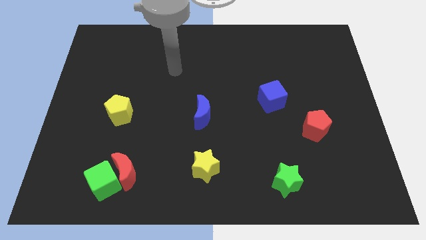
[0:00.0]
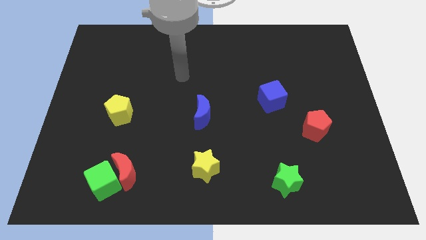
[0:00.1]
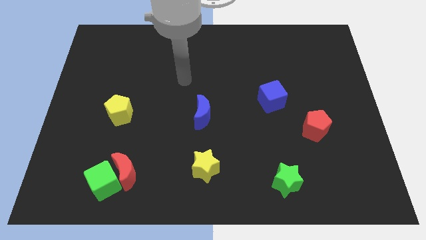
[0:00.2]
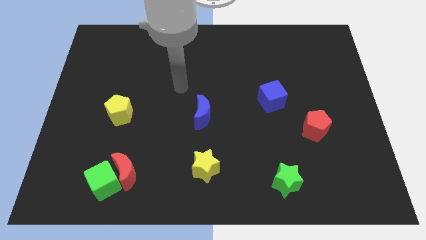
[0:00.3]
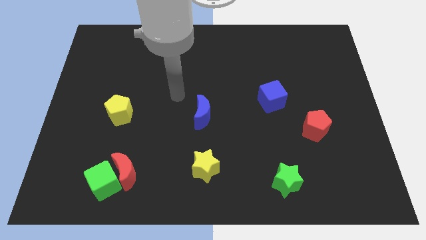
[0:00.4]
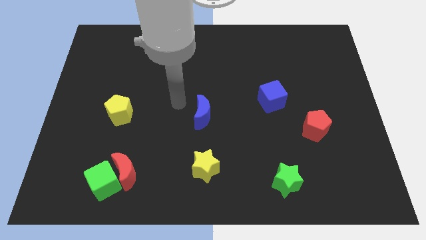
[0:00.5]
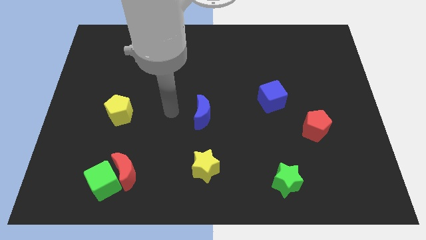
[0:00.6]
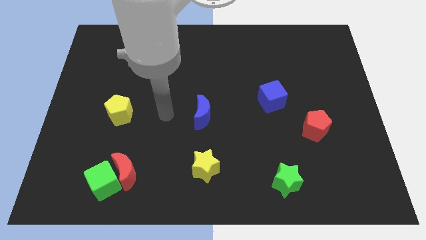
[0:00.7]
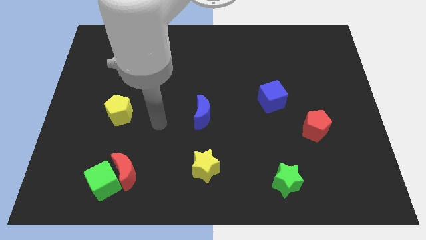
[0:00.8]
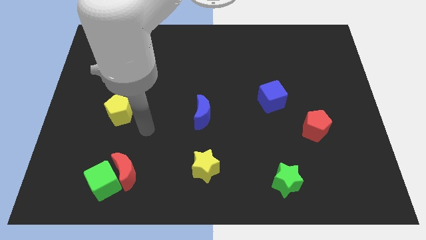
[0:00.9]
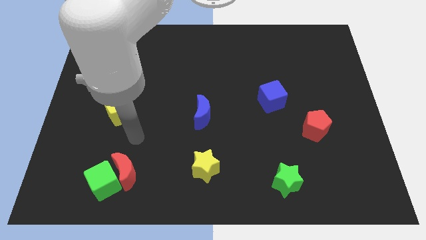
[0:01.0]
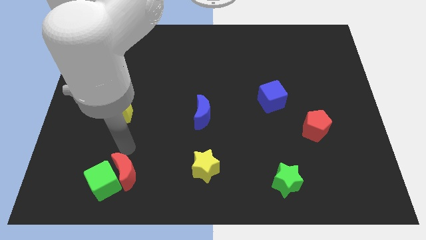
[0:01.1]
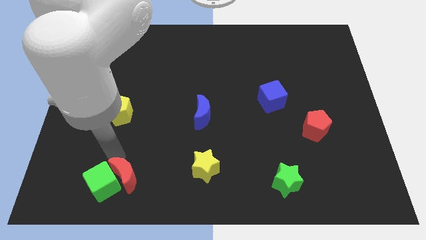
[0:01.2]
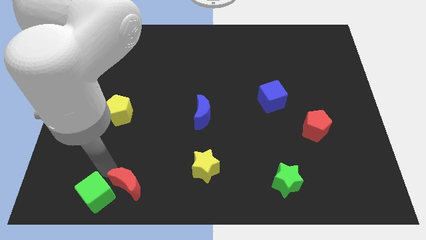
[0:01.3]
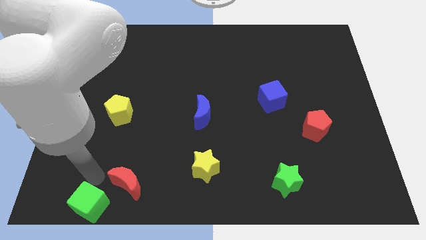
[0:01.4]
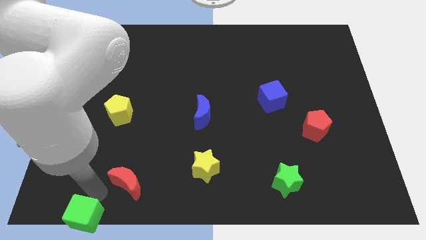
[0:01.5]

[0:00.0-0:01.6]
move the red moon away from the green cube

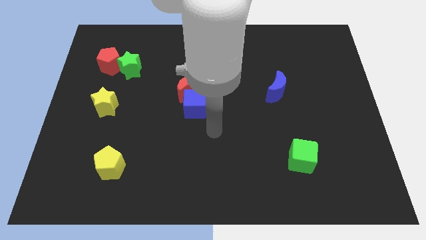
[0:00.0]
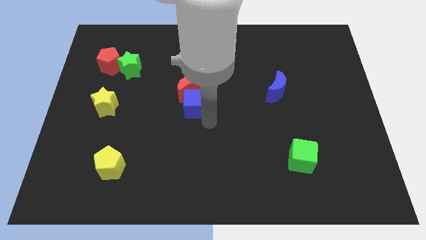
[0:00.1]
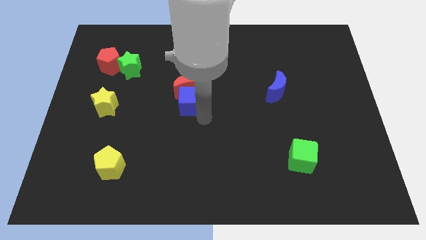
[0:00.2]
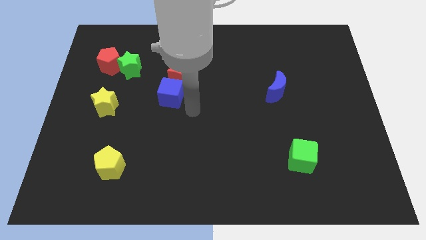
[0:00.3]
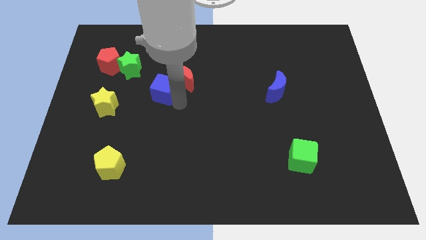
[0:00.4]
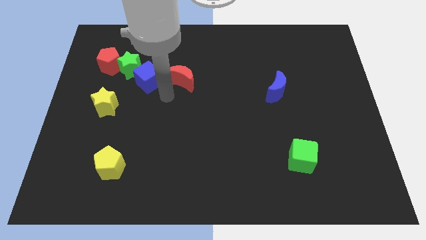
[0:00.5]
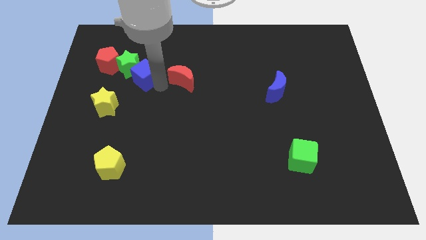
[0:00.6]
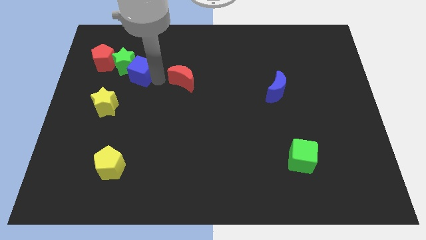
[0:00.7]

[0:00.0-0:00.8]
pull the red moon apart from the blue cube

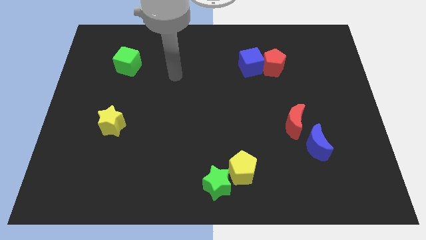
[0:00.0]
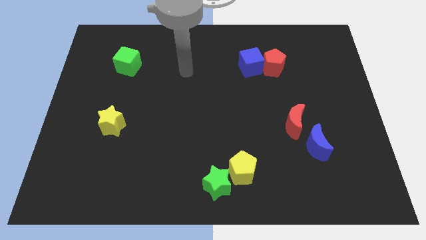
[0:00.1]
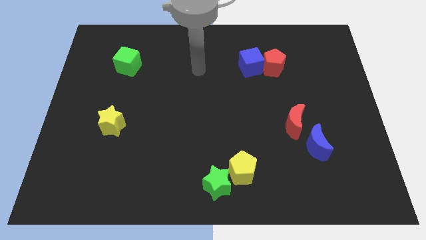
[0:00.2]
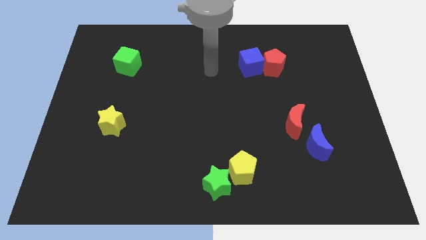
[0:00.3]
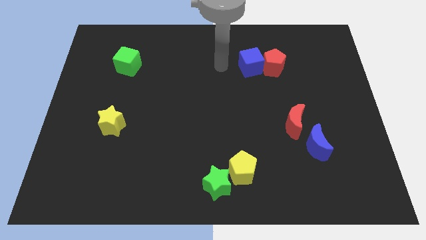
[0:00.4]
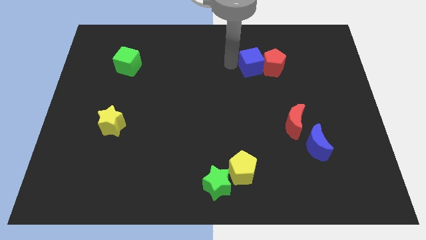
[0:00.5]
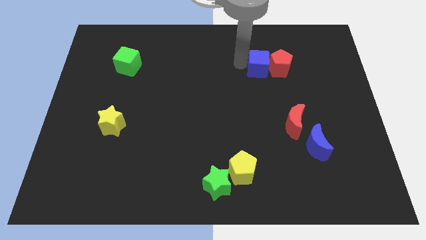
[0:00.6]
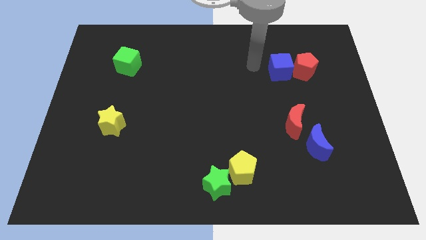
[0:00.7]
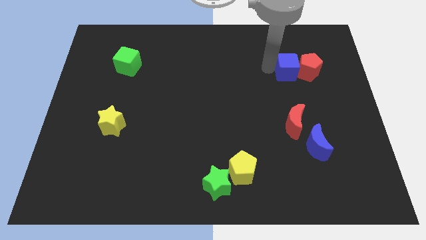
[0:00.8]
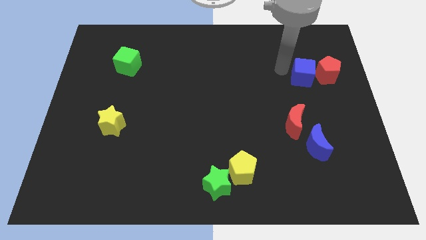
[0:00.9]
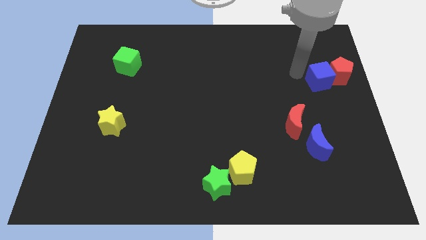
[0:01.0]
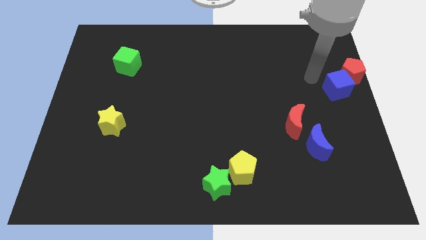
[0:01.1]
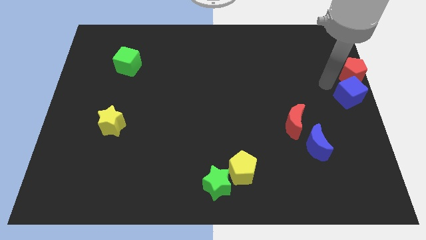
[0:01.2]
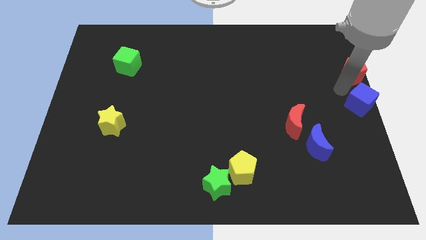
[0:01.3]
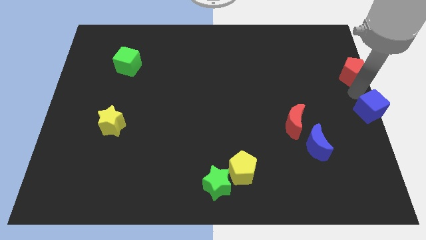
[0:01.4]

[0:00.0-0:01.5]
move the red pentagon away from the blue cube

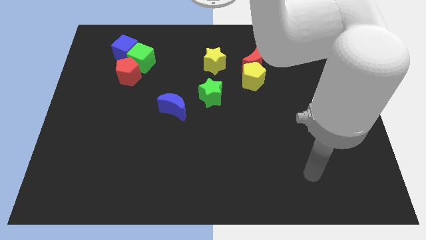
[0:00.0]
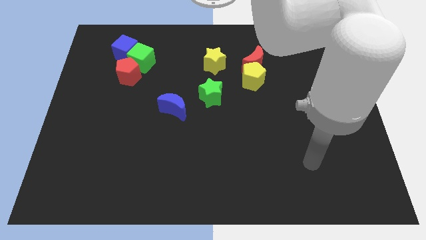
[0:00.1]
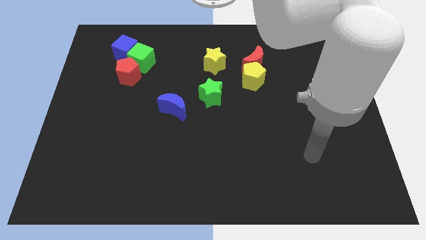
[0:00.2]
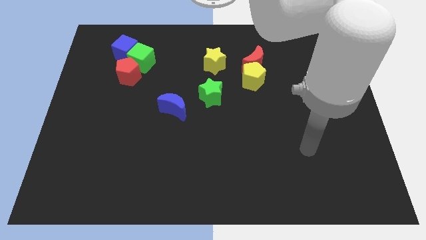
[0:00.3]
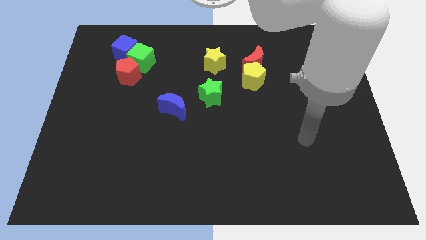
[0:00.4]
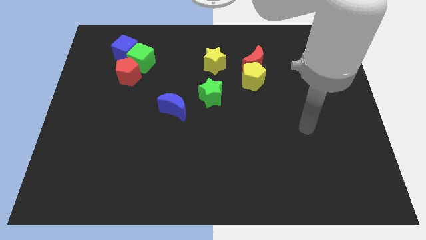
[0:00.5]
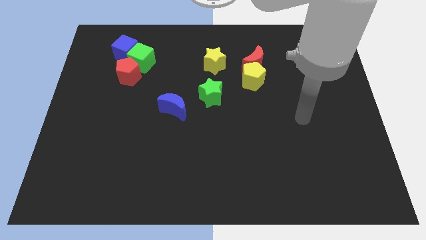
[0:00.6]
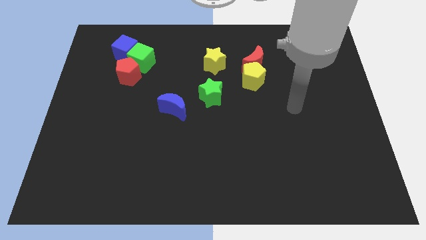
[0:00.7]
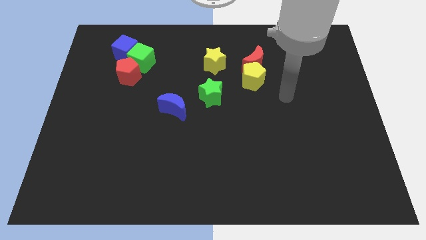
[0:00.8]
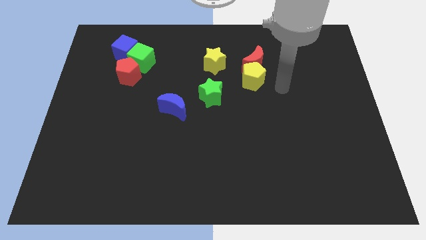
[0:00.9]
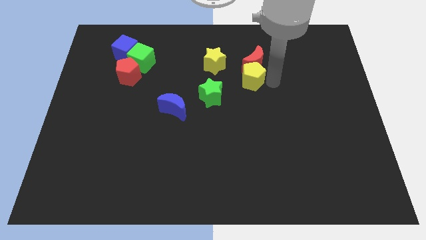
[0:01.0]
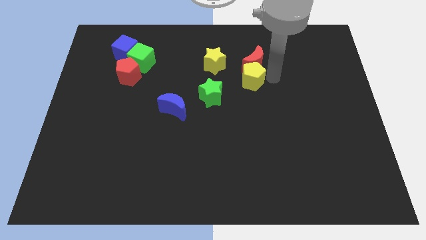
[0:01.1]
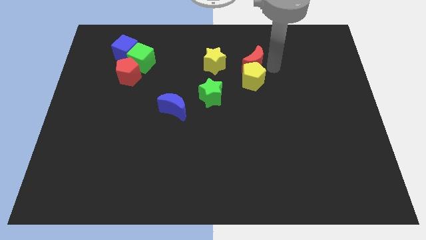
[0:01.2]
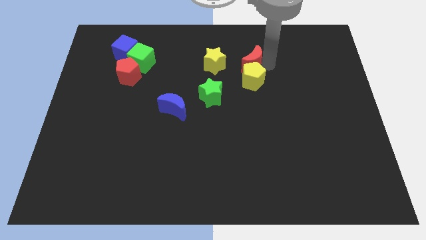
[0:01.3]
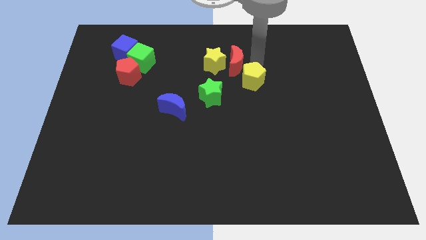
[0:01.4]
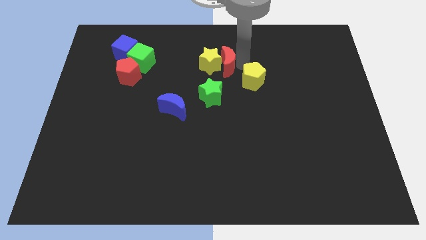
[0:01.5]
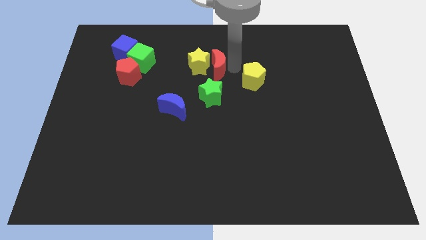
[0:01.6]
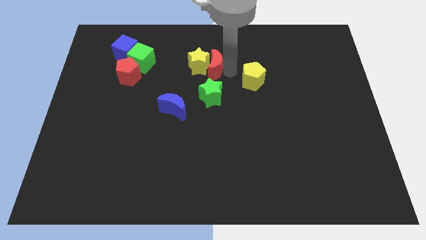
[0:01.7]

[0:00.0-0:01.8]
pull the yellow pentagon apart from the red moon

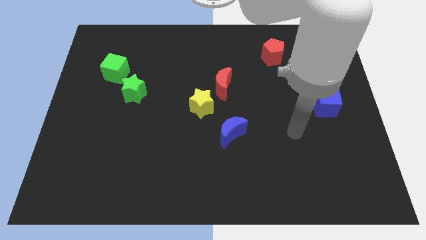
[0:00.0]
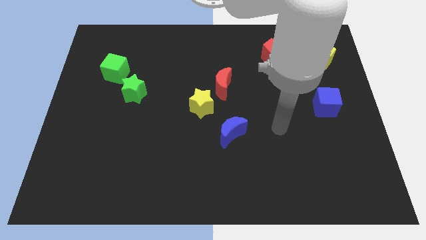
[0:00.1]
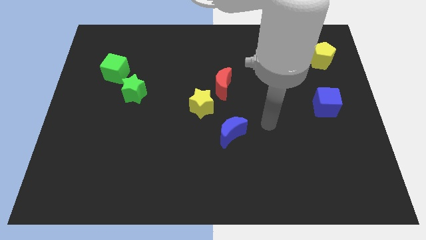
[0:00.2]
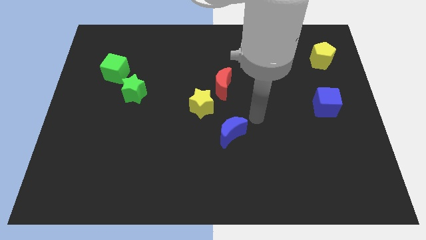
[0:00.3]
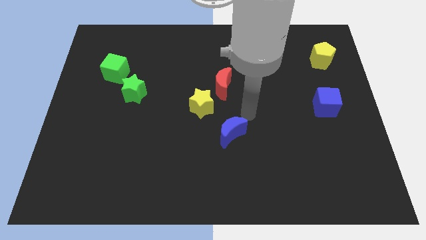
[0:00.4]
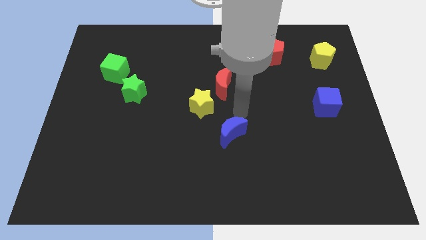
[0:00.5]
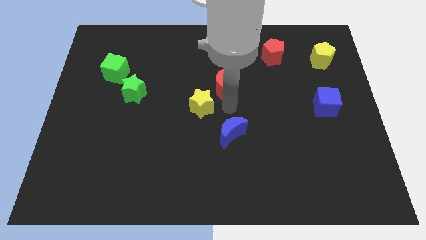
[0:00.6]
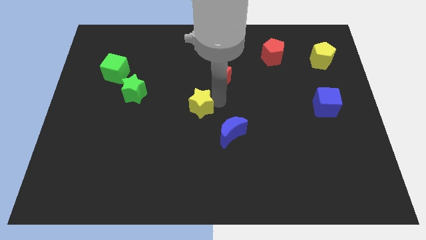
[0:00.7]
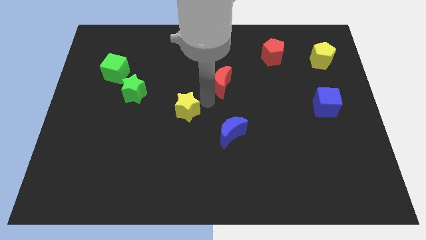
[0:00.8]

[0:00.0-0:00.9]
separate the red moon from the yellow star

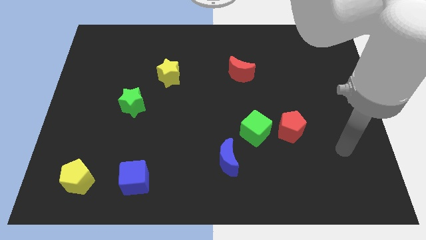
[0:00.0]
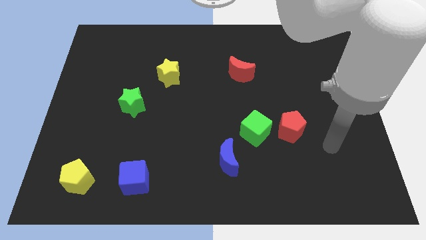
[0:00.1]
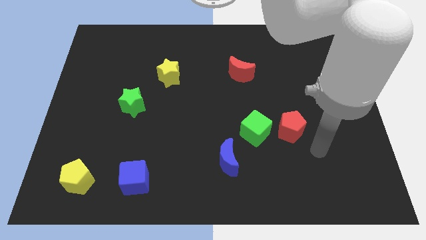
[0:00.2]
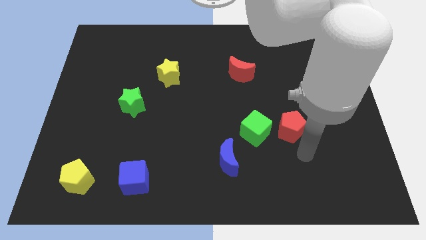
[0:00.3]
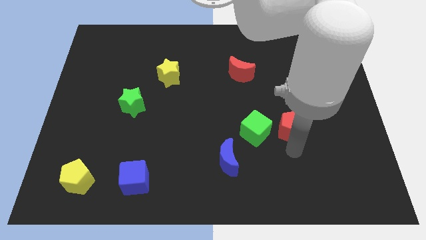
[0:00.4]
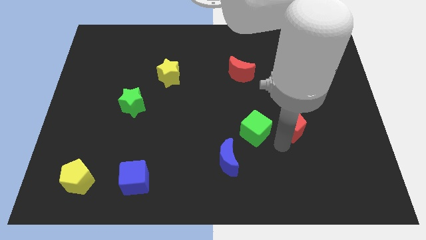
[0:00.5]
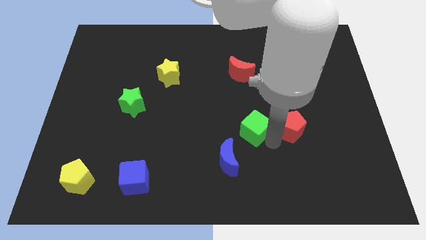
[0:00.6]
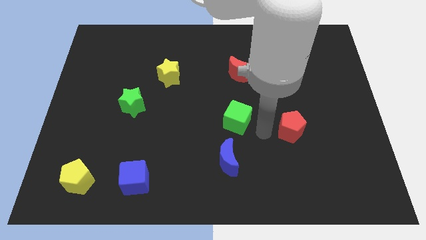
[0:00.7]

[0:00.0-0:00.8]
pull the red pentagon apart from the green cube

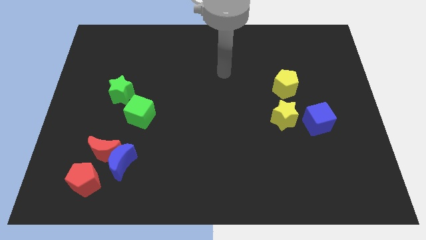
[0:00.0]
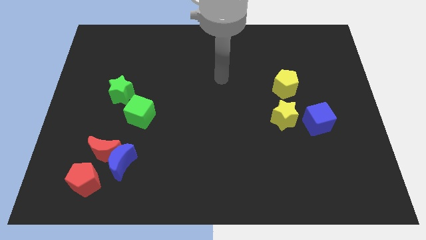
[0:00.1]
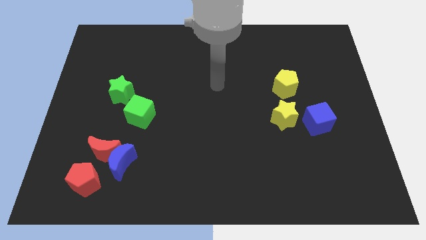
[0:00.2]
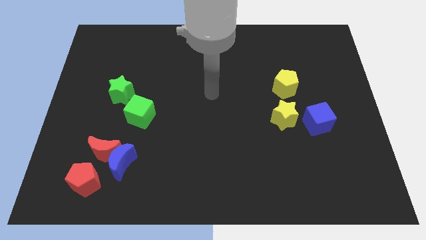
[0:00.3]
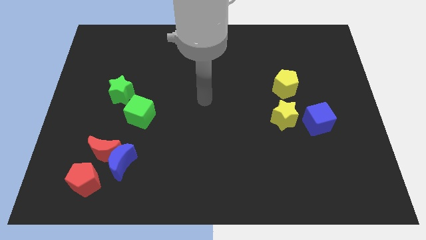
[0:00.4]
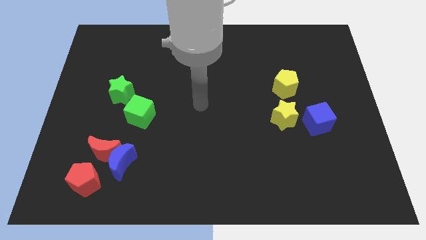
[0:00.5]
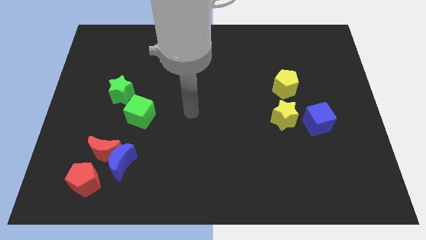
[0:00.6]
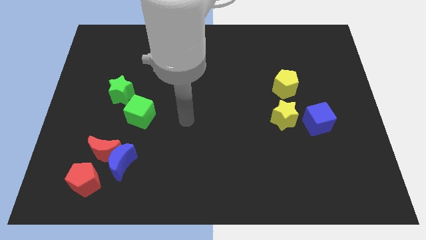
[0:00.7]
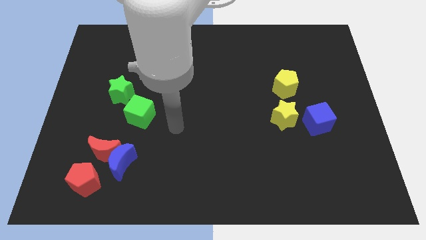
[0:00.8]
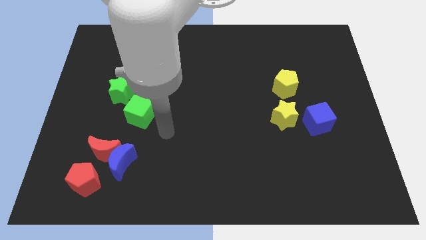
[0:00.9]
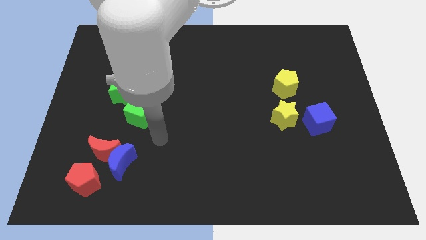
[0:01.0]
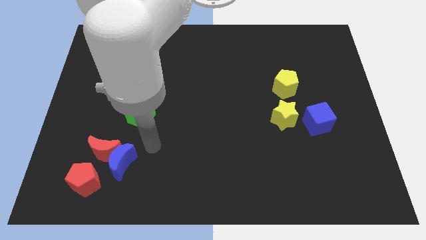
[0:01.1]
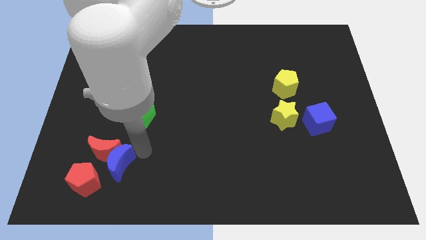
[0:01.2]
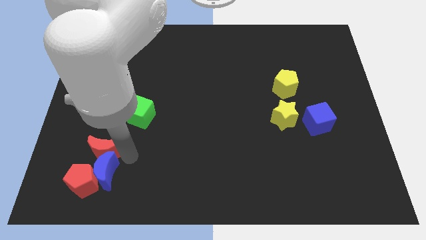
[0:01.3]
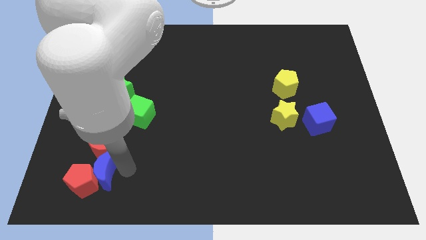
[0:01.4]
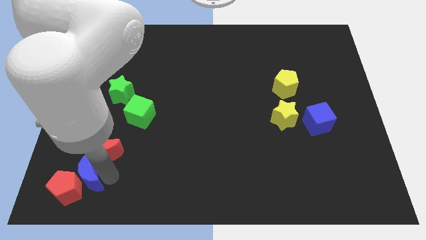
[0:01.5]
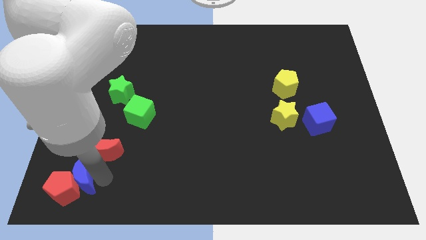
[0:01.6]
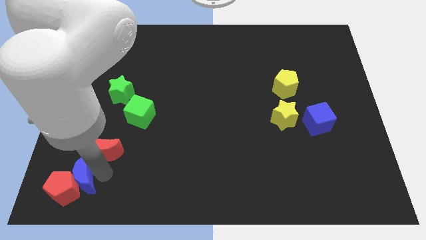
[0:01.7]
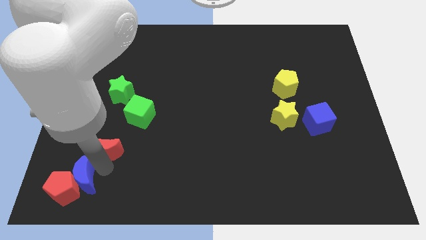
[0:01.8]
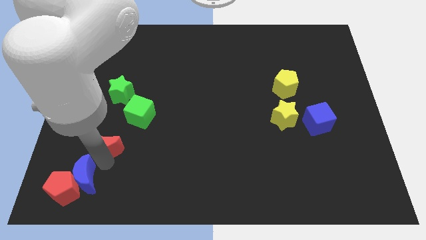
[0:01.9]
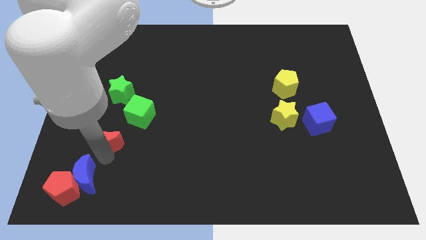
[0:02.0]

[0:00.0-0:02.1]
move the red moon away from the blue moon and red pentagon
